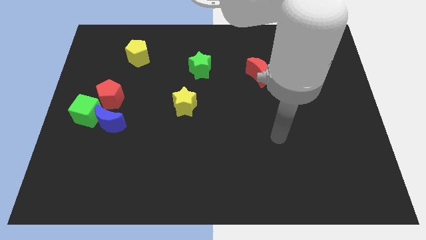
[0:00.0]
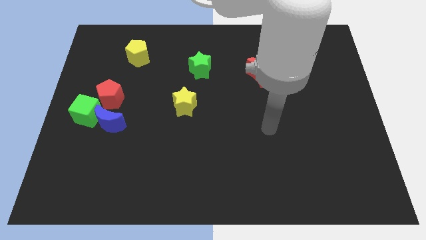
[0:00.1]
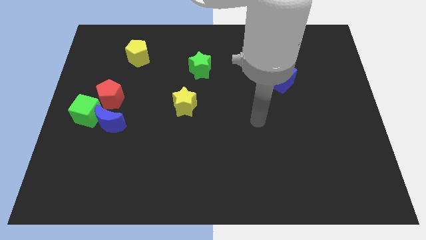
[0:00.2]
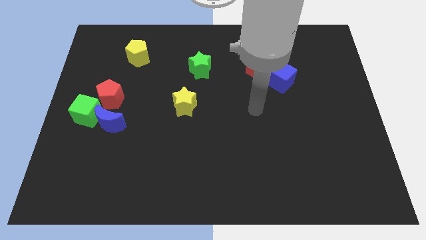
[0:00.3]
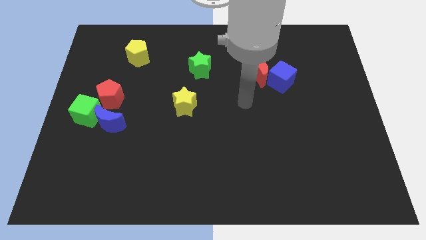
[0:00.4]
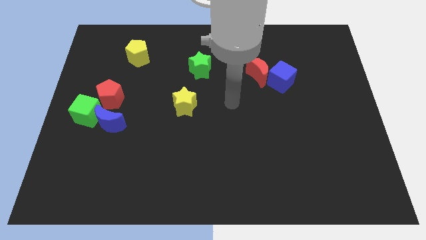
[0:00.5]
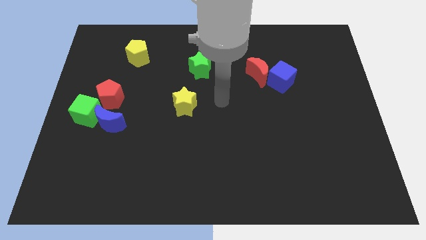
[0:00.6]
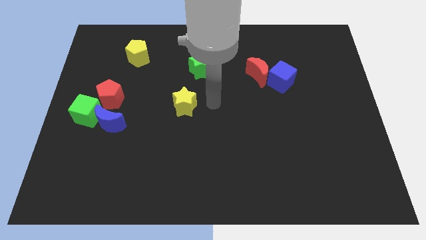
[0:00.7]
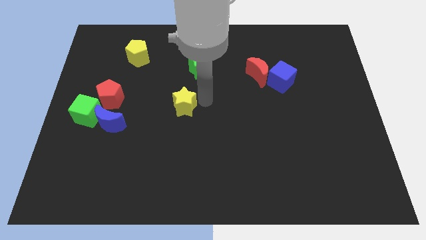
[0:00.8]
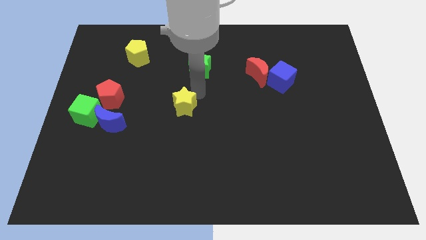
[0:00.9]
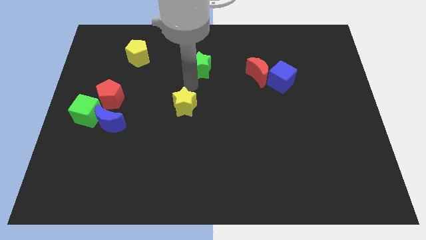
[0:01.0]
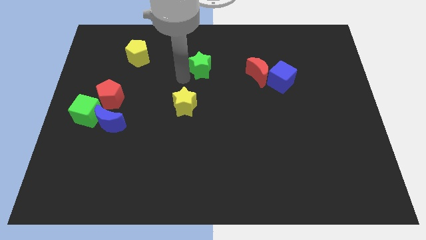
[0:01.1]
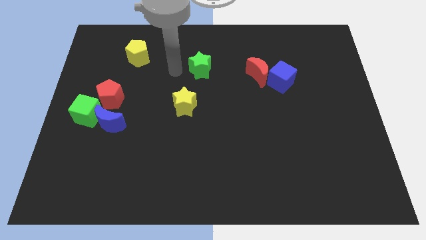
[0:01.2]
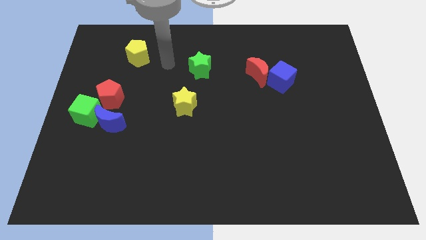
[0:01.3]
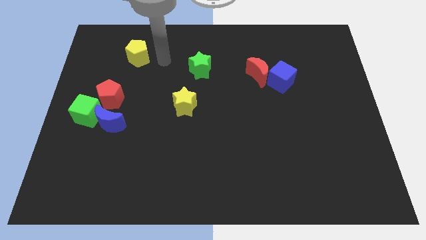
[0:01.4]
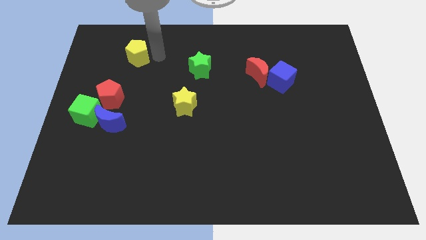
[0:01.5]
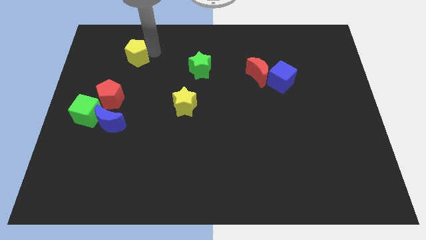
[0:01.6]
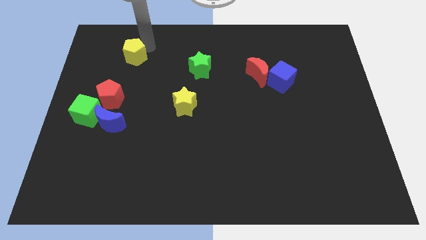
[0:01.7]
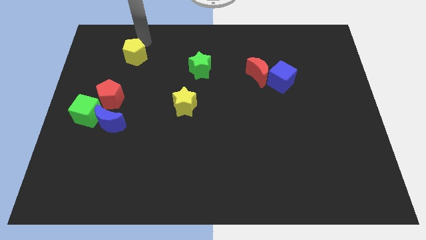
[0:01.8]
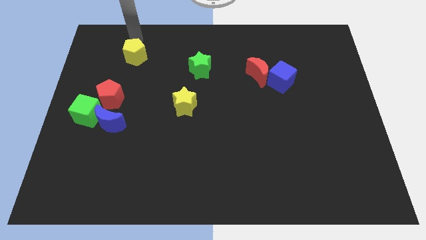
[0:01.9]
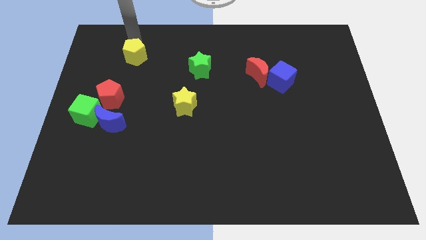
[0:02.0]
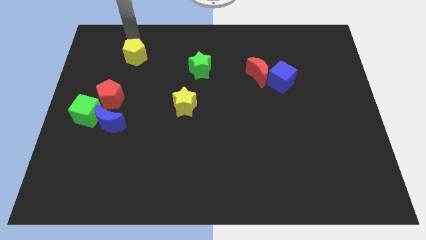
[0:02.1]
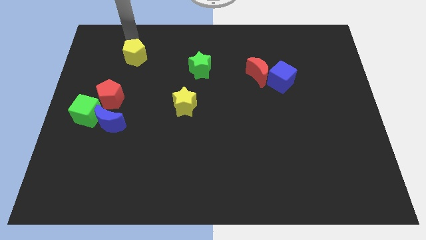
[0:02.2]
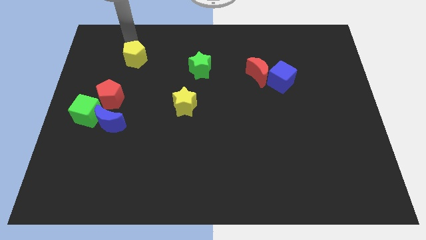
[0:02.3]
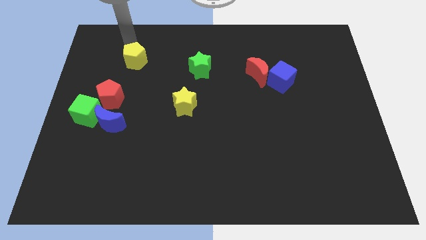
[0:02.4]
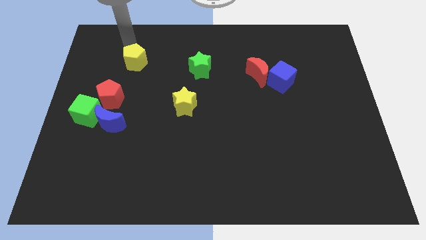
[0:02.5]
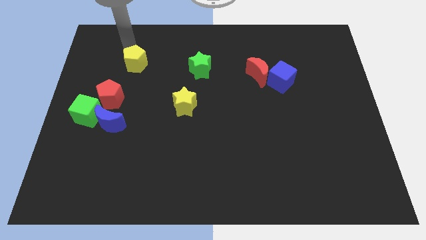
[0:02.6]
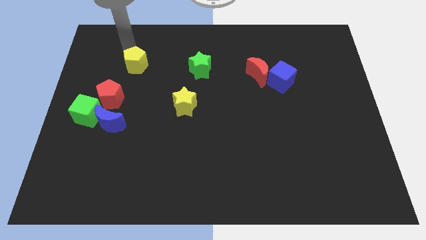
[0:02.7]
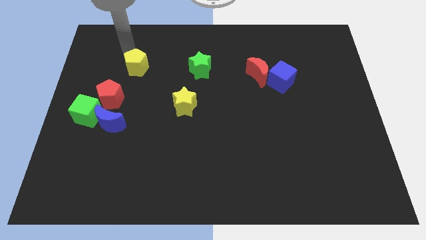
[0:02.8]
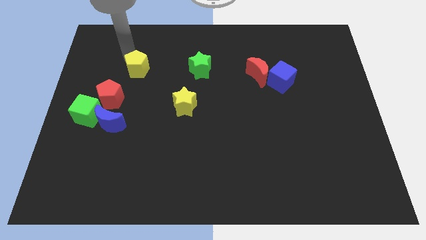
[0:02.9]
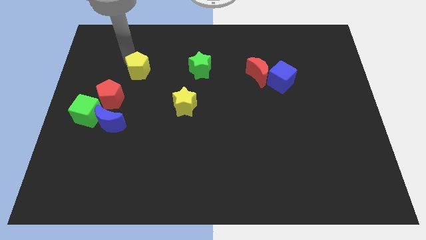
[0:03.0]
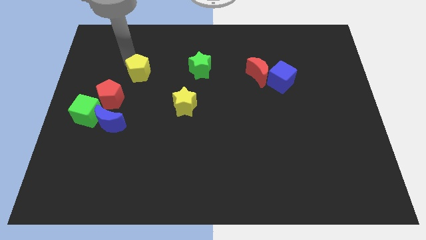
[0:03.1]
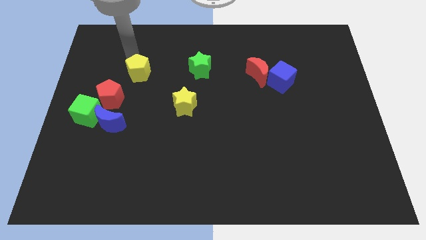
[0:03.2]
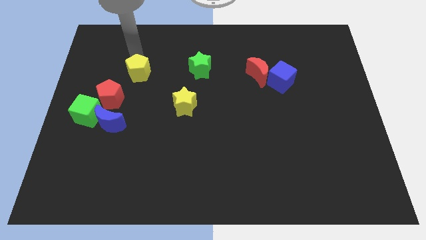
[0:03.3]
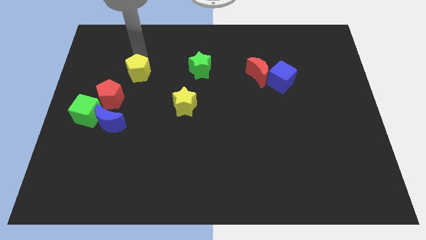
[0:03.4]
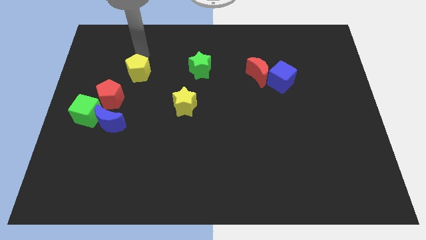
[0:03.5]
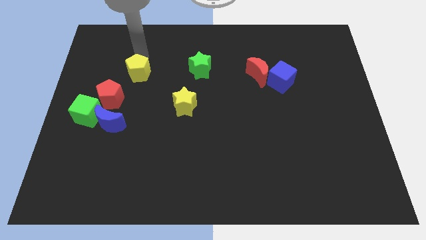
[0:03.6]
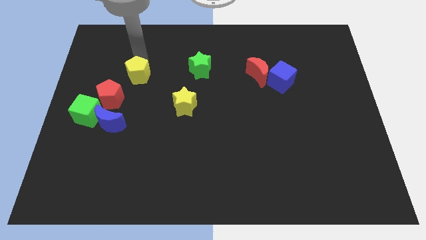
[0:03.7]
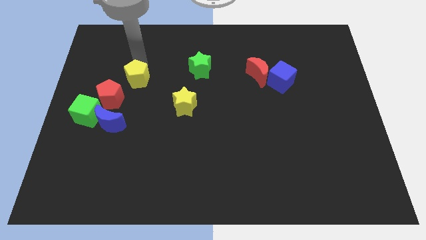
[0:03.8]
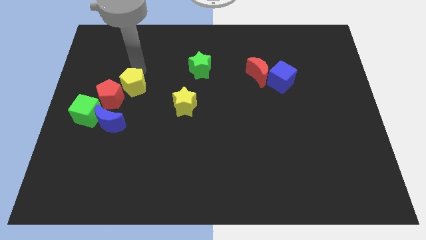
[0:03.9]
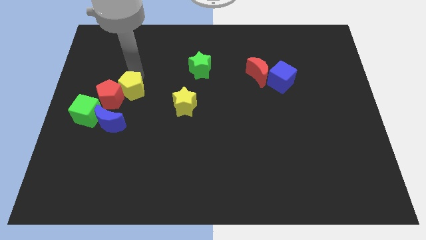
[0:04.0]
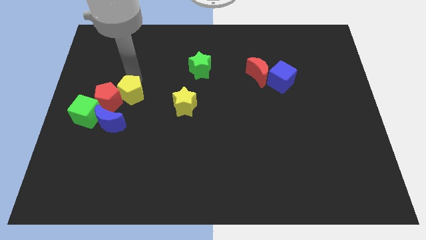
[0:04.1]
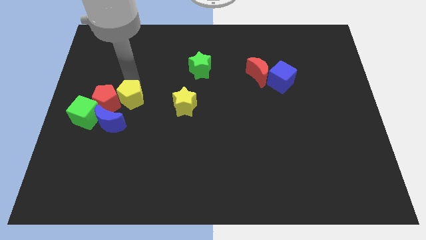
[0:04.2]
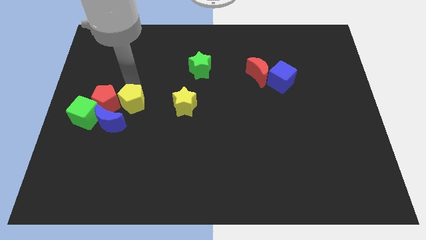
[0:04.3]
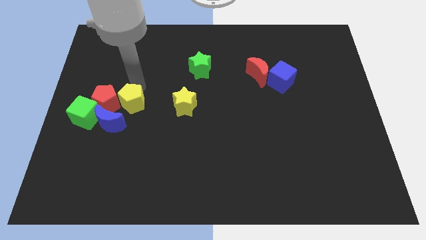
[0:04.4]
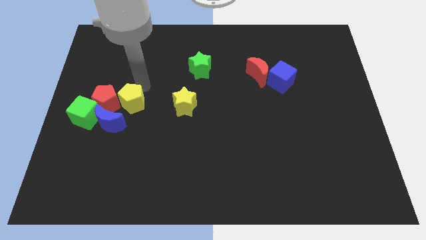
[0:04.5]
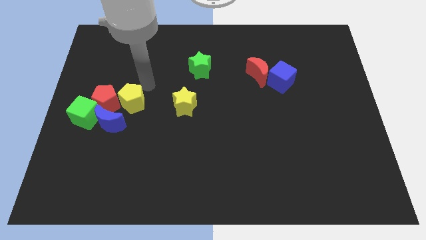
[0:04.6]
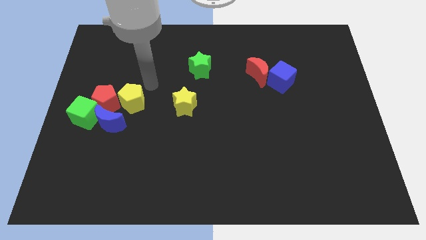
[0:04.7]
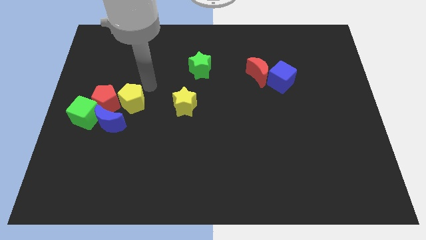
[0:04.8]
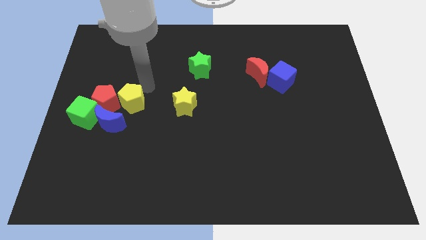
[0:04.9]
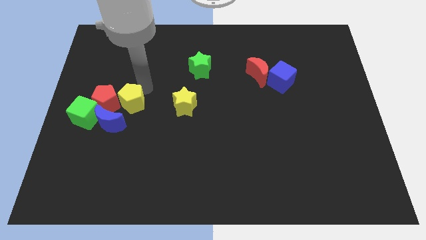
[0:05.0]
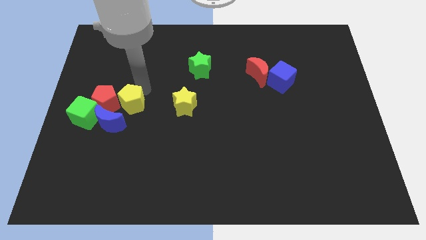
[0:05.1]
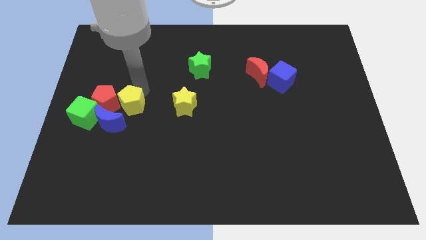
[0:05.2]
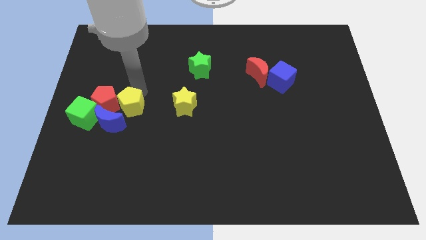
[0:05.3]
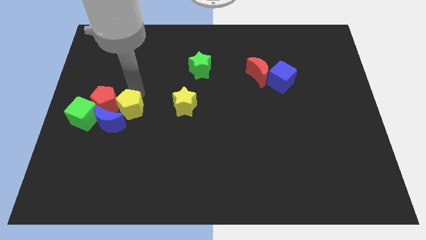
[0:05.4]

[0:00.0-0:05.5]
put the yellow pentagon next to the blue moon
